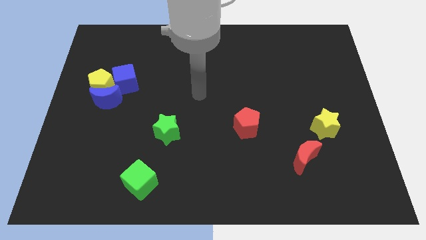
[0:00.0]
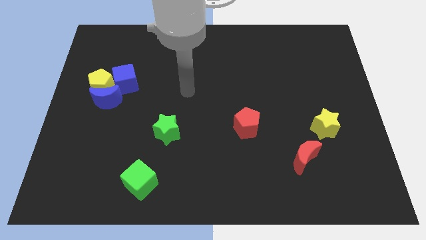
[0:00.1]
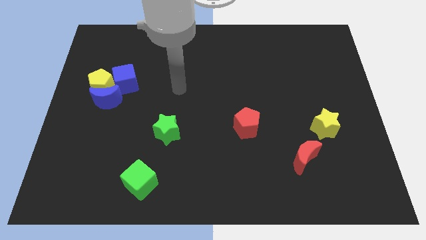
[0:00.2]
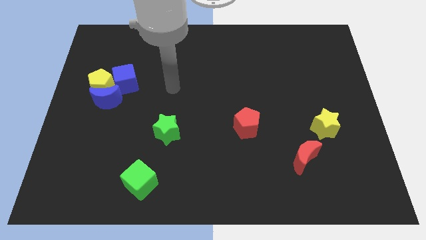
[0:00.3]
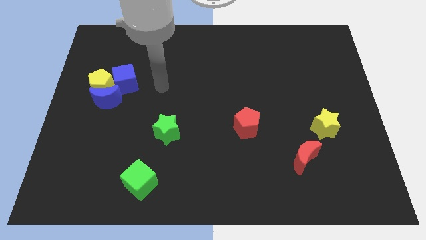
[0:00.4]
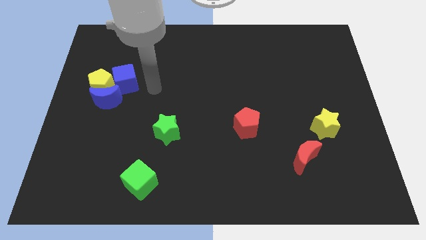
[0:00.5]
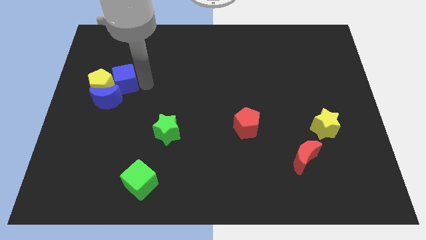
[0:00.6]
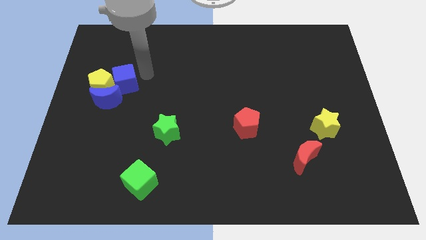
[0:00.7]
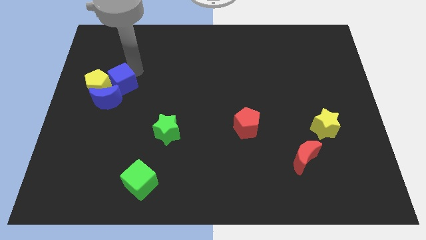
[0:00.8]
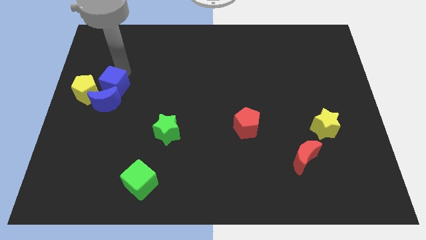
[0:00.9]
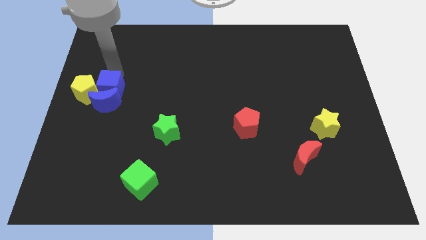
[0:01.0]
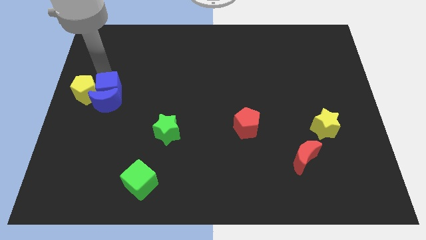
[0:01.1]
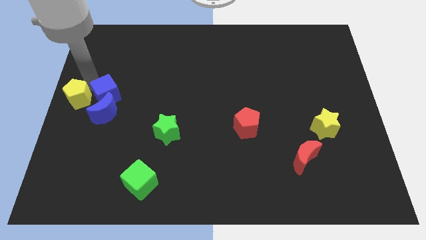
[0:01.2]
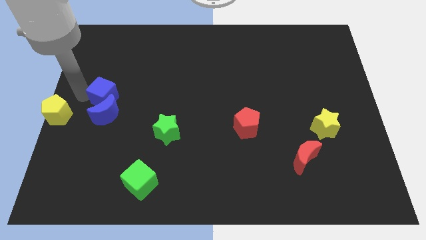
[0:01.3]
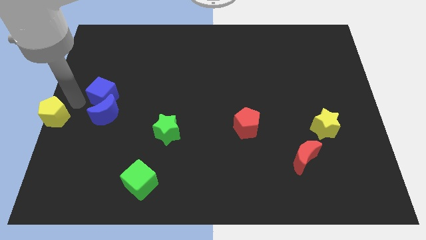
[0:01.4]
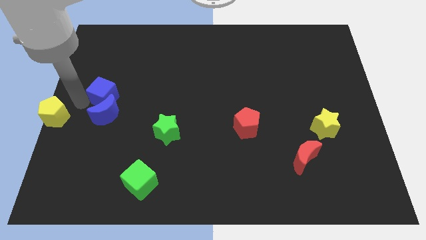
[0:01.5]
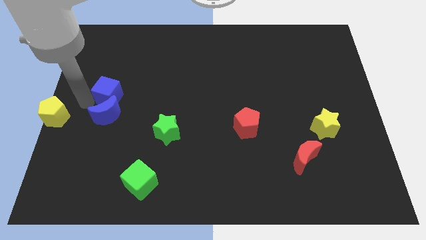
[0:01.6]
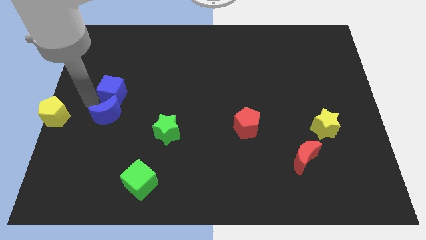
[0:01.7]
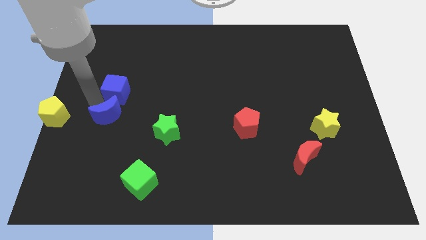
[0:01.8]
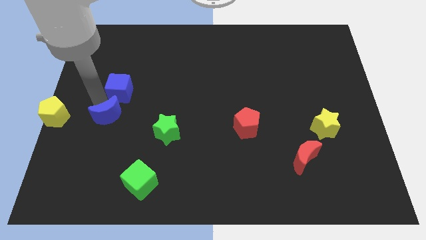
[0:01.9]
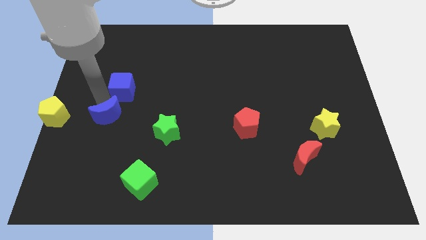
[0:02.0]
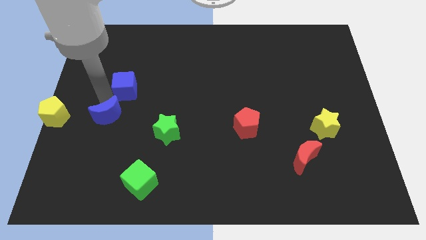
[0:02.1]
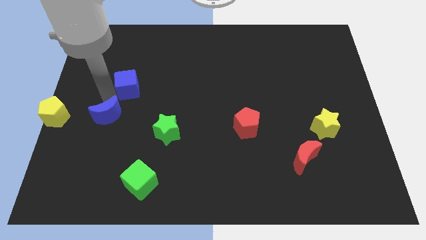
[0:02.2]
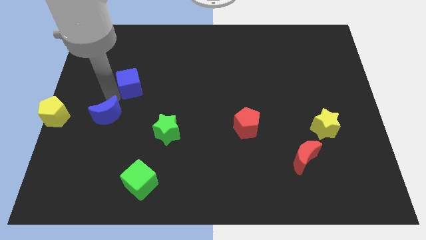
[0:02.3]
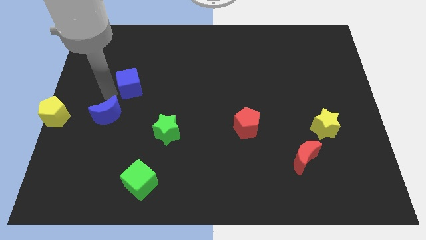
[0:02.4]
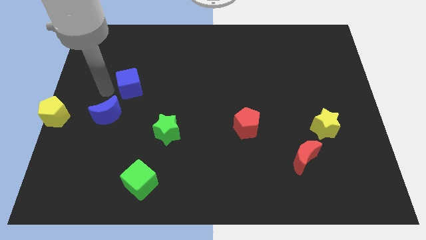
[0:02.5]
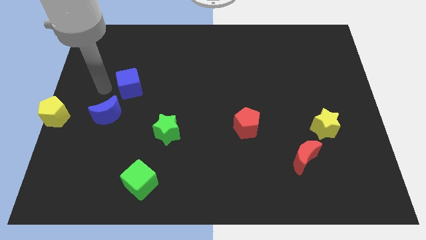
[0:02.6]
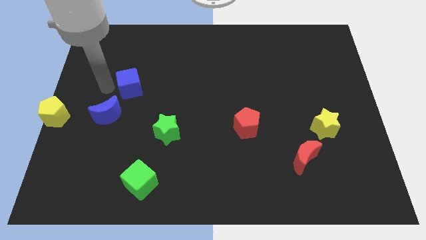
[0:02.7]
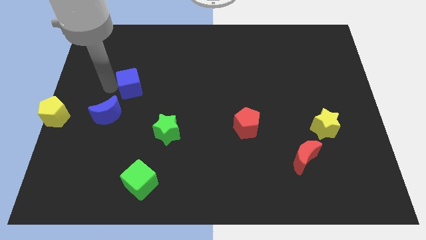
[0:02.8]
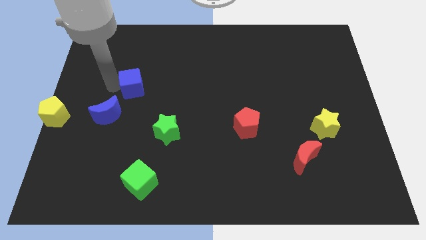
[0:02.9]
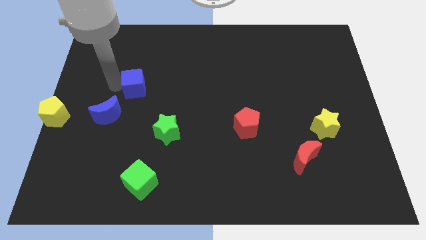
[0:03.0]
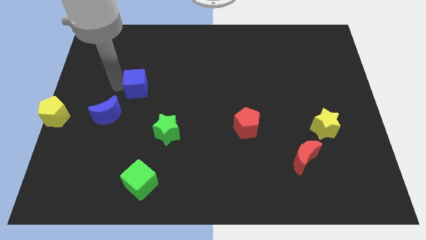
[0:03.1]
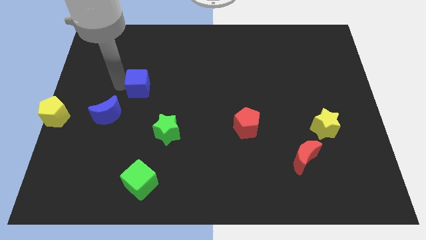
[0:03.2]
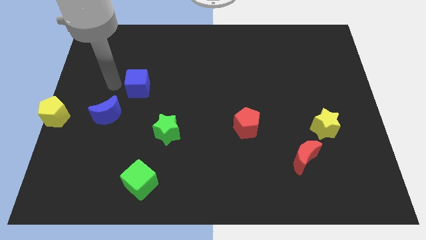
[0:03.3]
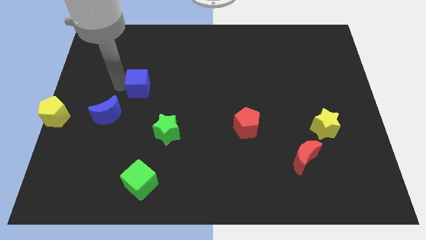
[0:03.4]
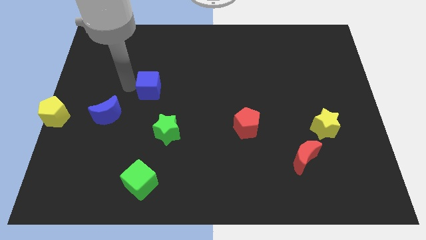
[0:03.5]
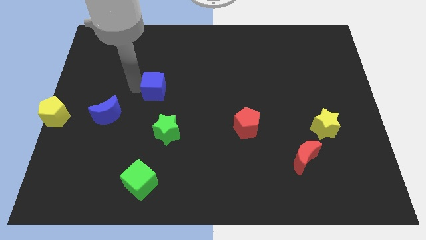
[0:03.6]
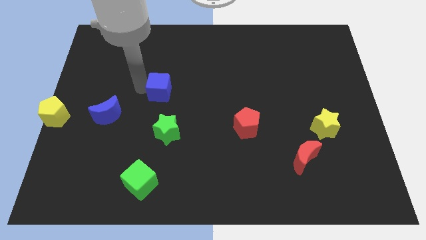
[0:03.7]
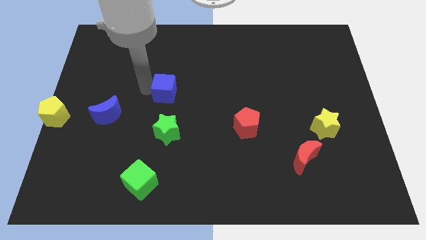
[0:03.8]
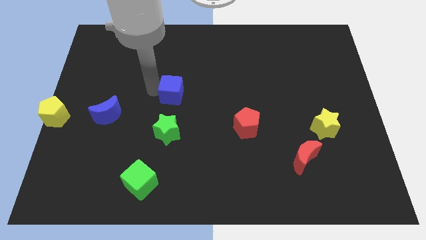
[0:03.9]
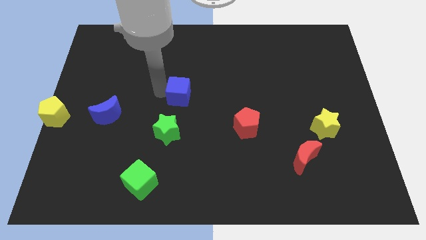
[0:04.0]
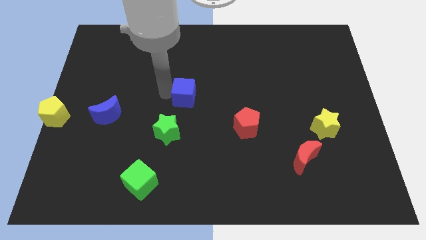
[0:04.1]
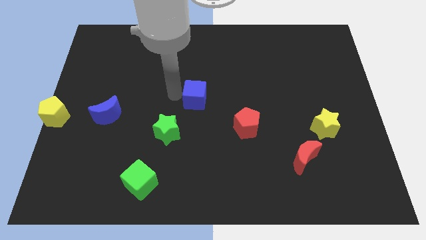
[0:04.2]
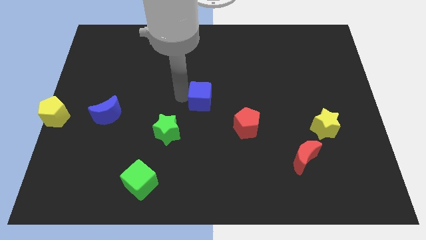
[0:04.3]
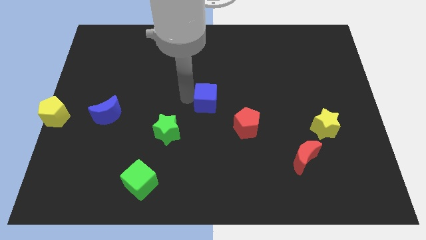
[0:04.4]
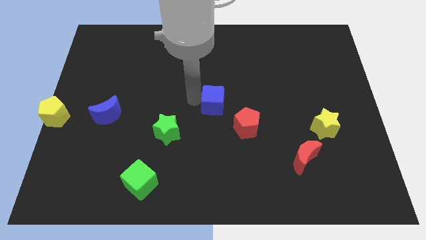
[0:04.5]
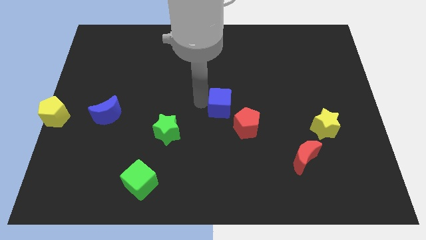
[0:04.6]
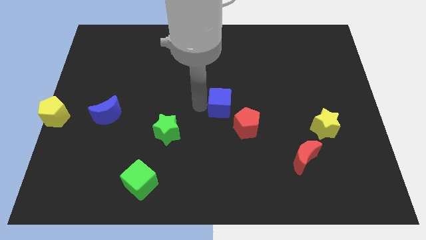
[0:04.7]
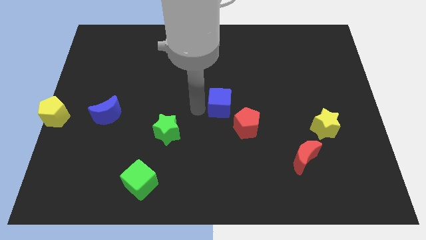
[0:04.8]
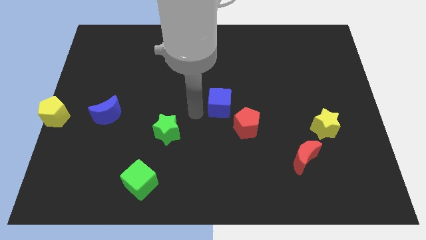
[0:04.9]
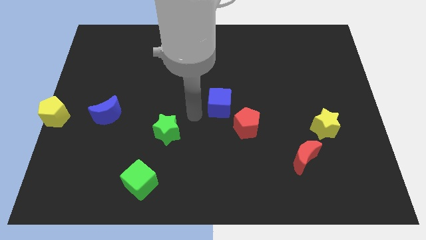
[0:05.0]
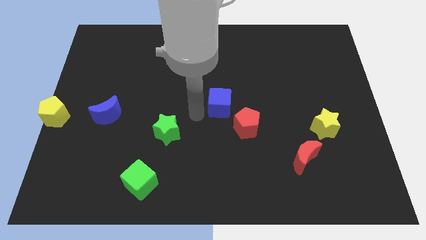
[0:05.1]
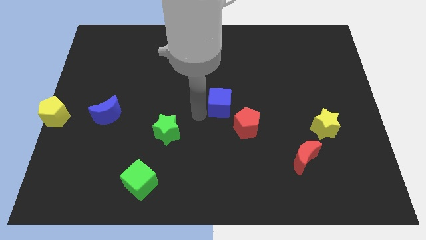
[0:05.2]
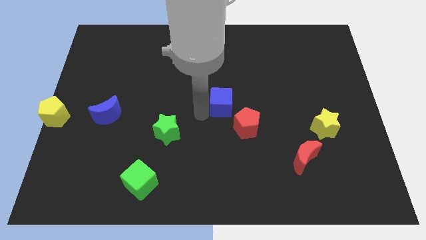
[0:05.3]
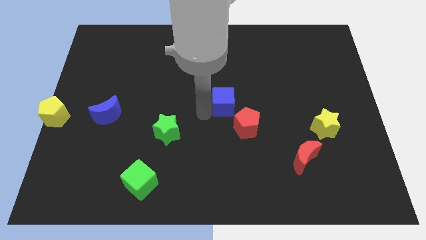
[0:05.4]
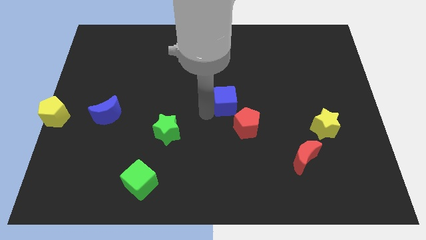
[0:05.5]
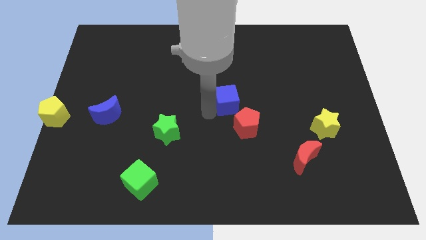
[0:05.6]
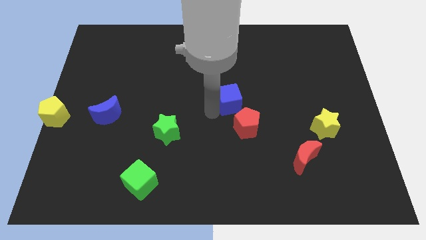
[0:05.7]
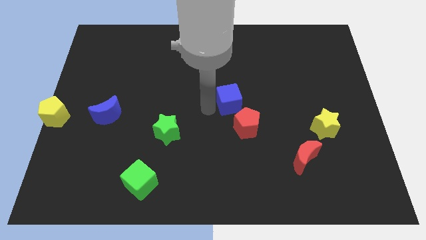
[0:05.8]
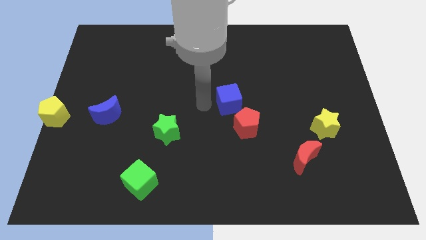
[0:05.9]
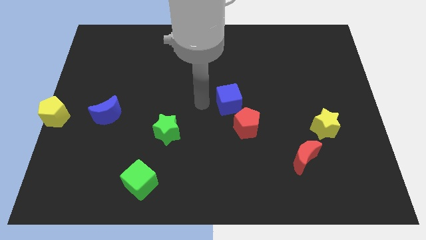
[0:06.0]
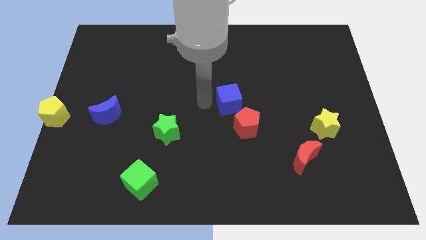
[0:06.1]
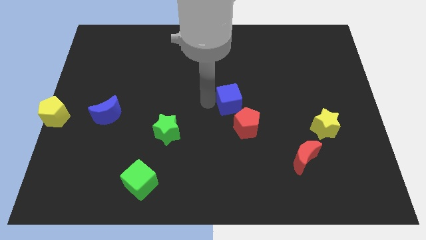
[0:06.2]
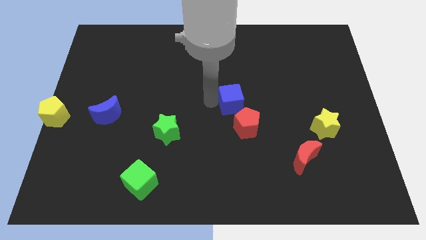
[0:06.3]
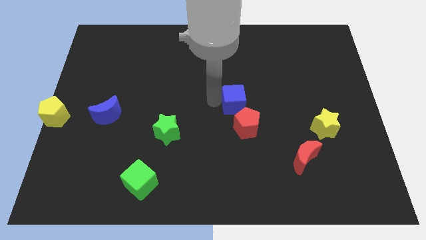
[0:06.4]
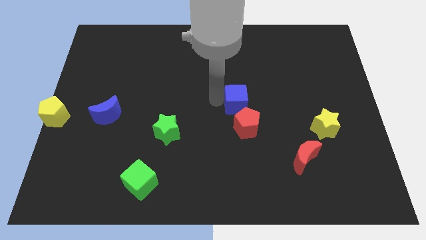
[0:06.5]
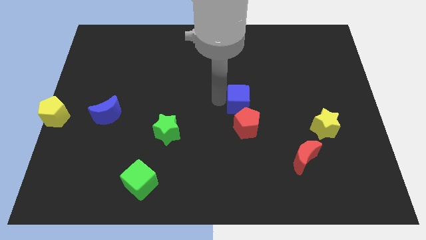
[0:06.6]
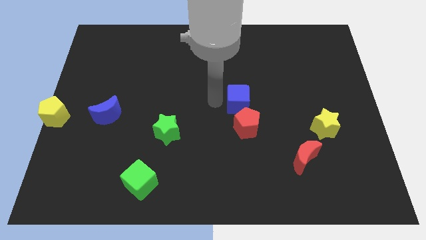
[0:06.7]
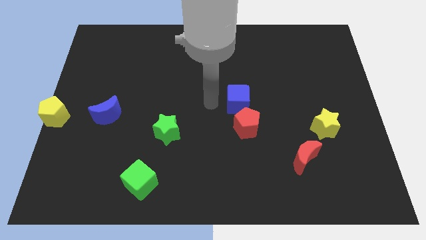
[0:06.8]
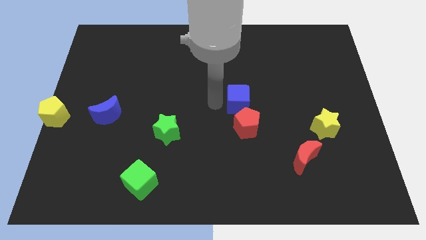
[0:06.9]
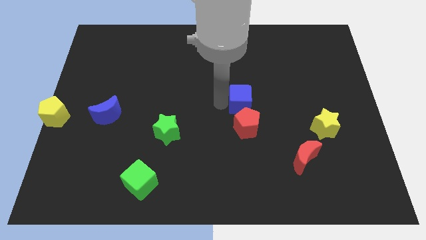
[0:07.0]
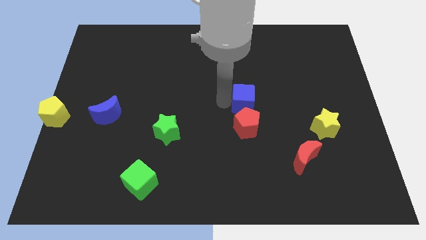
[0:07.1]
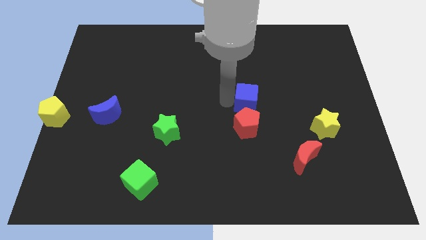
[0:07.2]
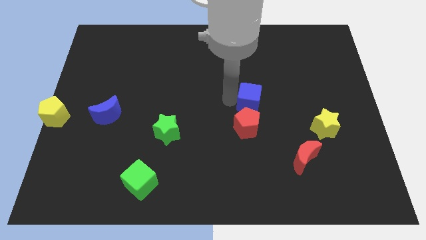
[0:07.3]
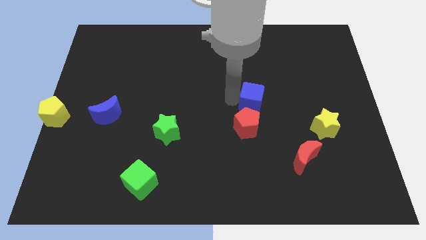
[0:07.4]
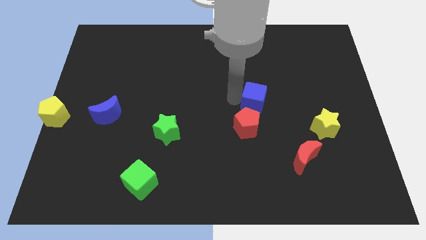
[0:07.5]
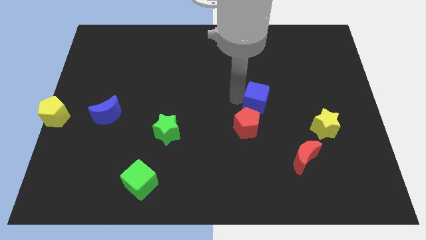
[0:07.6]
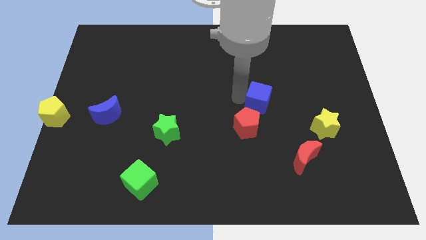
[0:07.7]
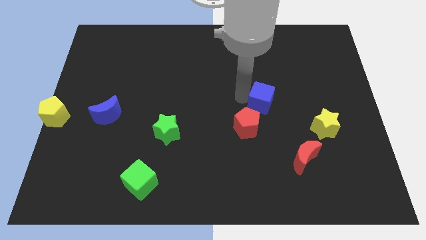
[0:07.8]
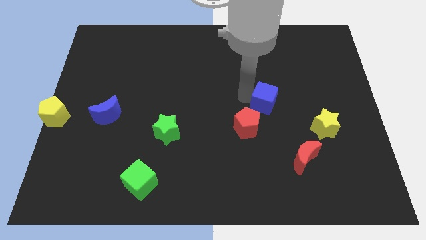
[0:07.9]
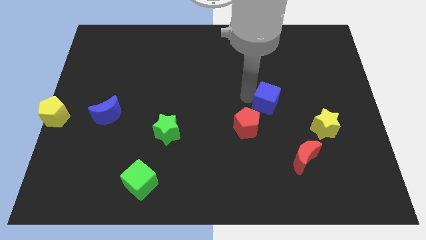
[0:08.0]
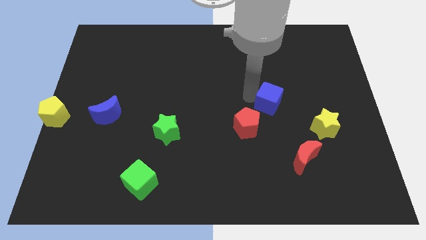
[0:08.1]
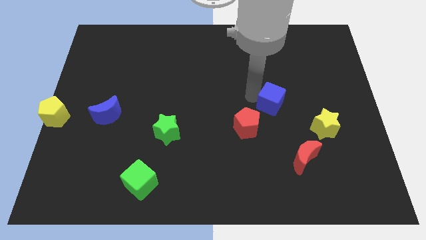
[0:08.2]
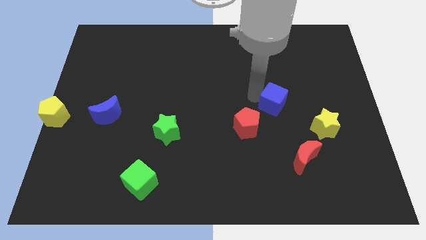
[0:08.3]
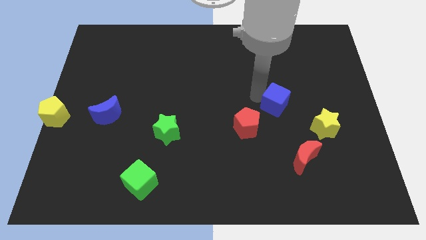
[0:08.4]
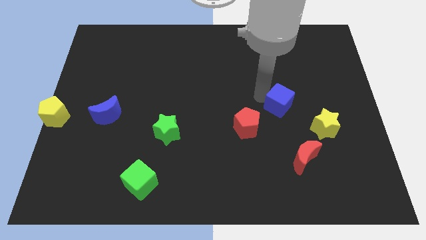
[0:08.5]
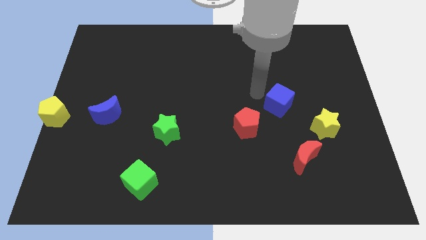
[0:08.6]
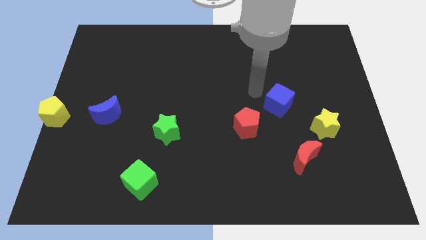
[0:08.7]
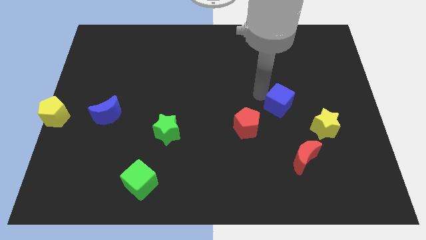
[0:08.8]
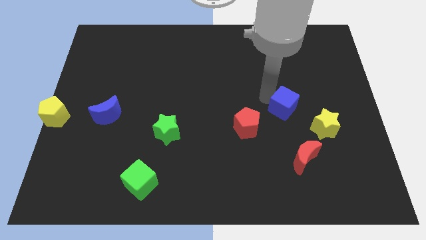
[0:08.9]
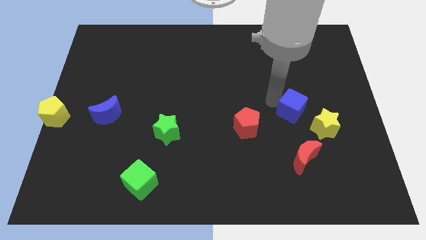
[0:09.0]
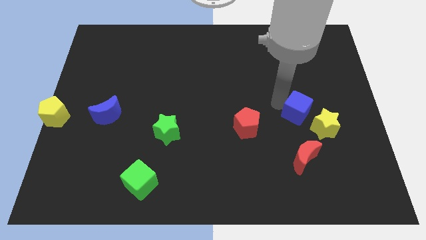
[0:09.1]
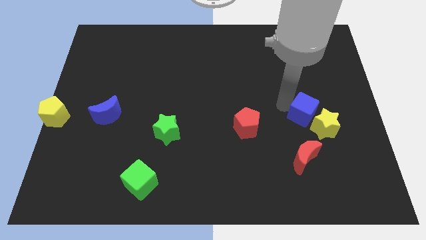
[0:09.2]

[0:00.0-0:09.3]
put the blue cube next to the yellow star
